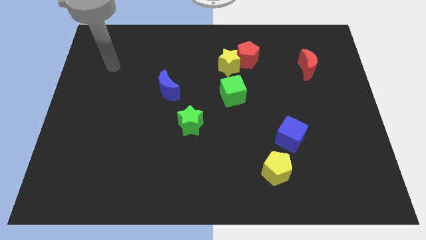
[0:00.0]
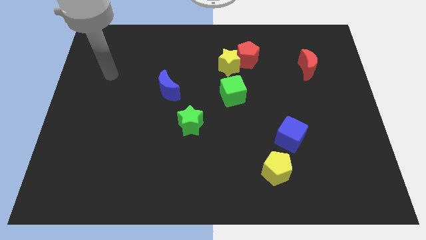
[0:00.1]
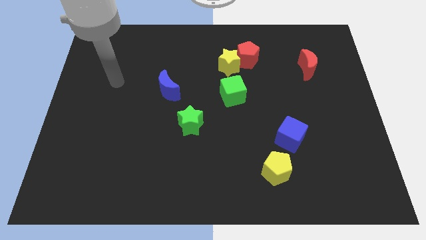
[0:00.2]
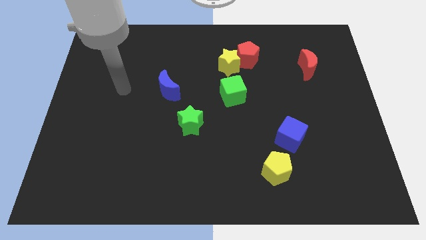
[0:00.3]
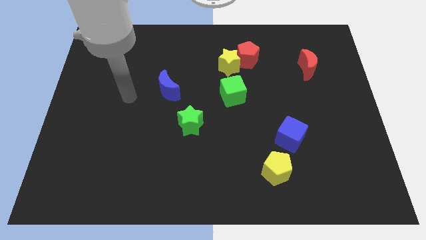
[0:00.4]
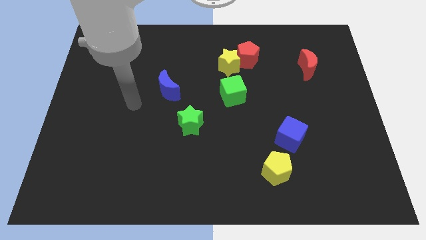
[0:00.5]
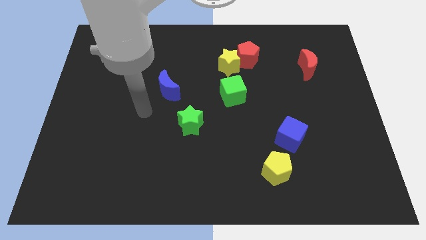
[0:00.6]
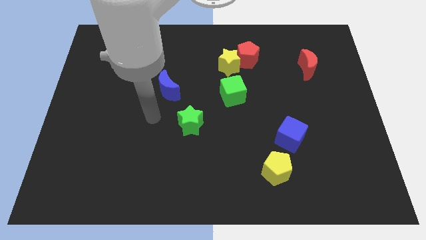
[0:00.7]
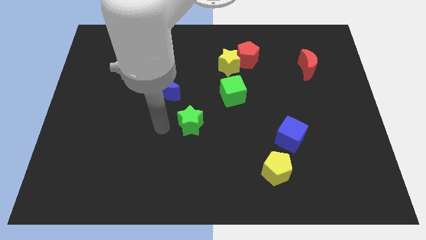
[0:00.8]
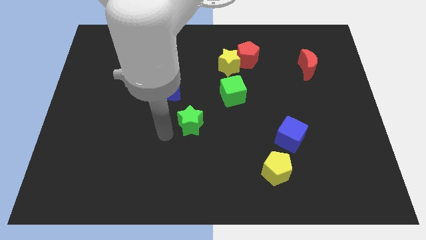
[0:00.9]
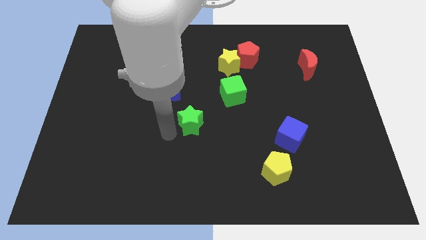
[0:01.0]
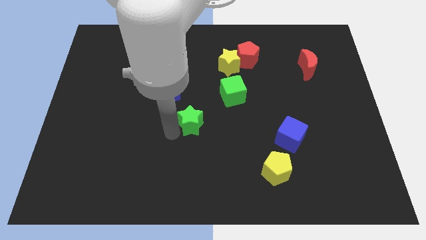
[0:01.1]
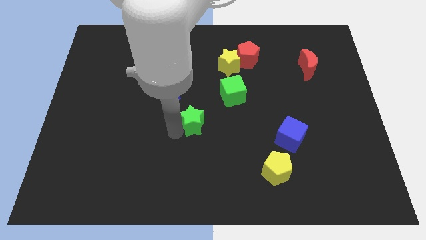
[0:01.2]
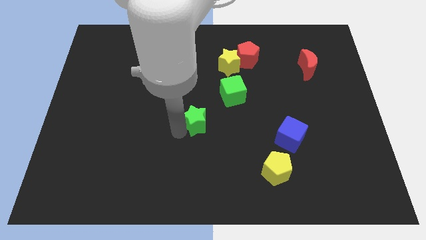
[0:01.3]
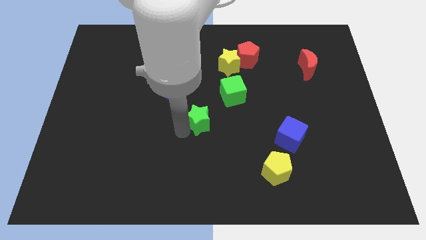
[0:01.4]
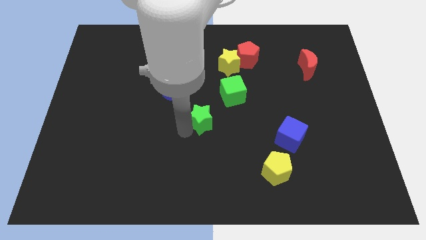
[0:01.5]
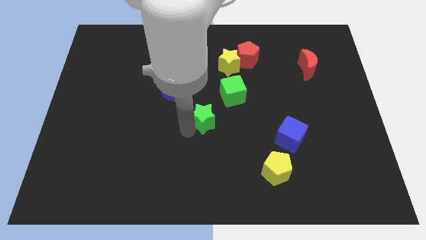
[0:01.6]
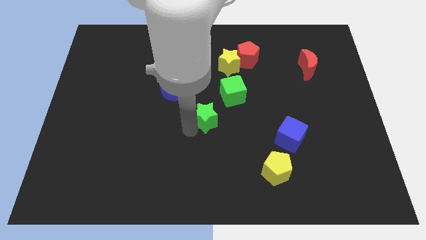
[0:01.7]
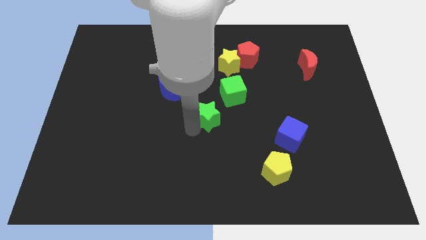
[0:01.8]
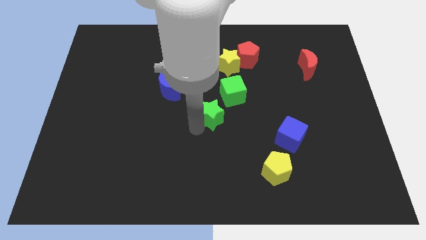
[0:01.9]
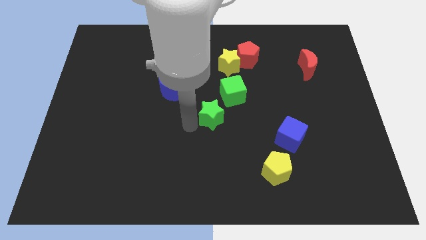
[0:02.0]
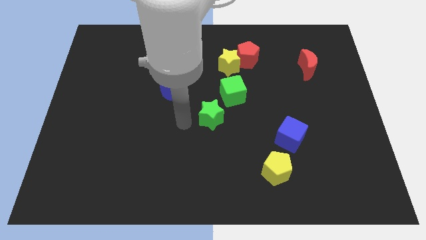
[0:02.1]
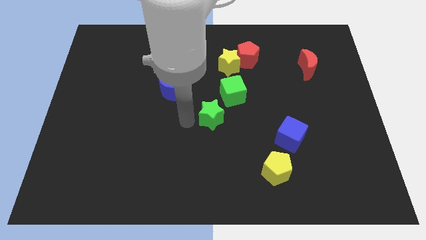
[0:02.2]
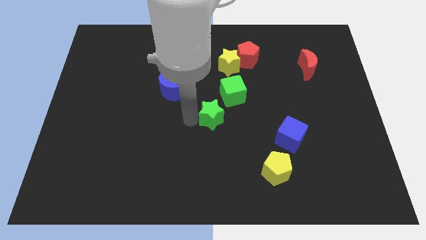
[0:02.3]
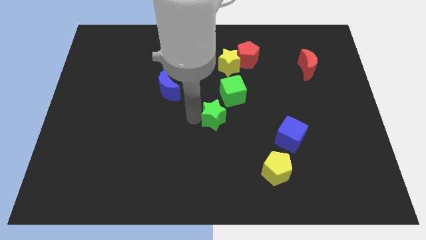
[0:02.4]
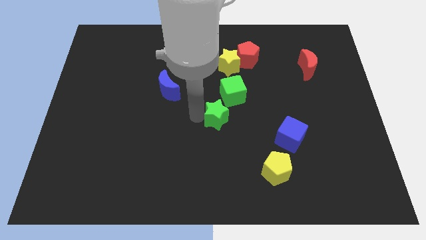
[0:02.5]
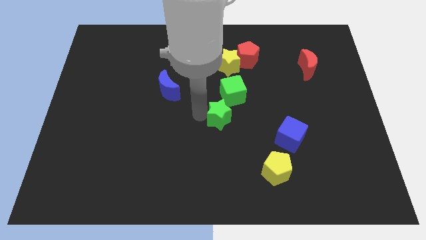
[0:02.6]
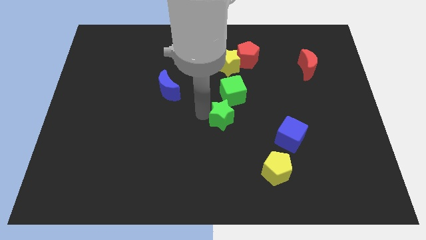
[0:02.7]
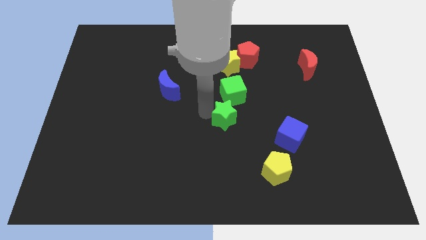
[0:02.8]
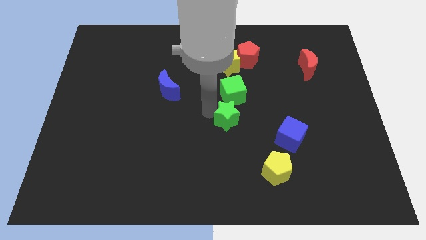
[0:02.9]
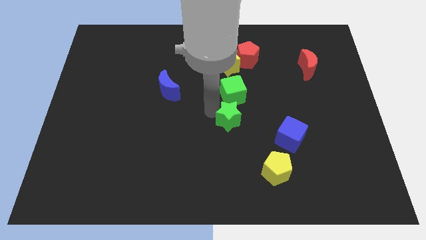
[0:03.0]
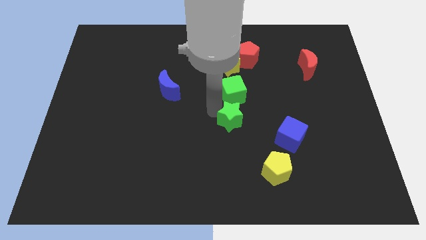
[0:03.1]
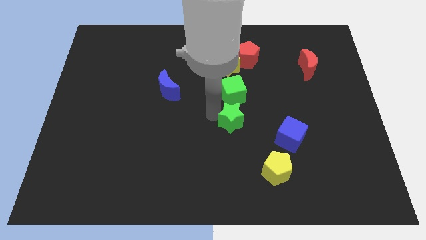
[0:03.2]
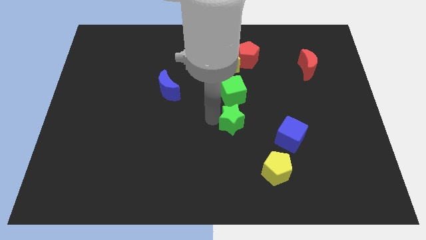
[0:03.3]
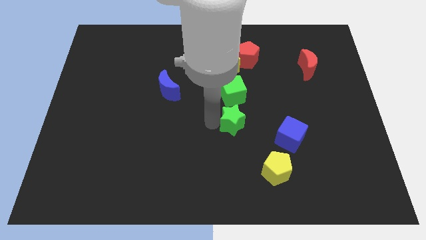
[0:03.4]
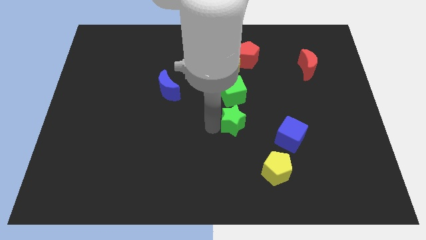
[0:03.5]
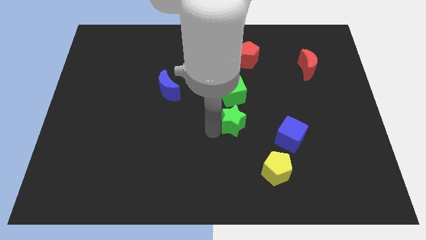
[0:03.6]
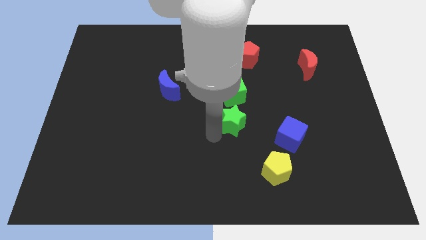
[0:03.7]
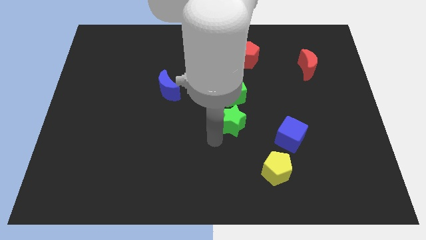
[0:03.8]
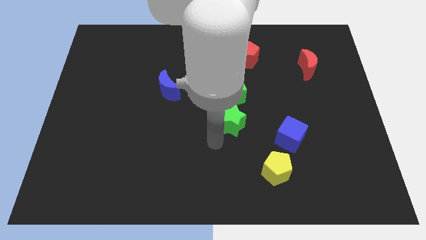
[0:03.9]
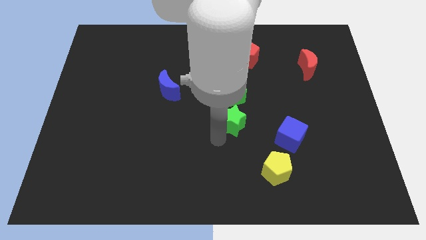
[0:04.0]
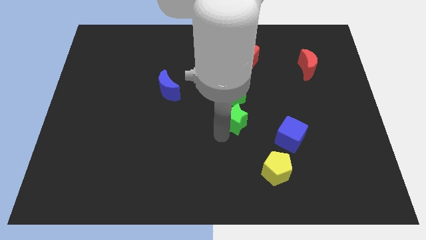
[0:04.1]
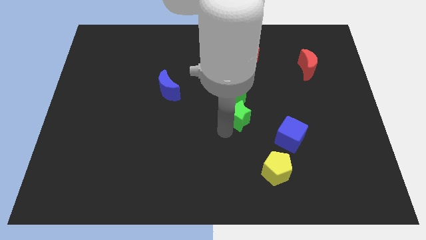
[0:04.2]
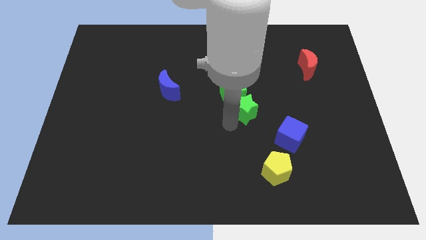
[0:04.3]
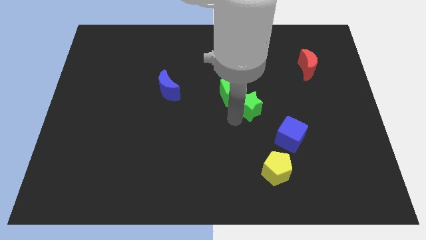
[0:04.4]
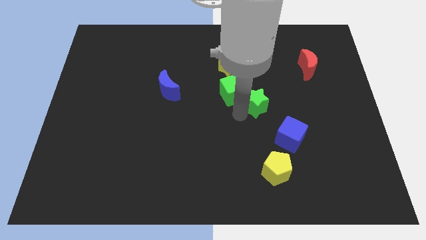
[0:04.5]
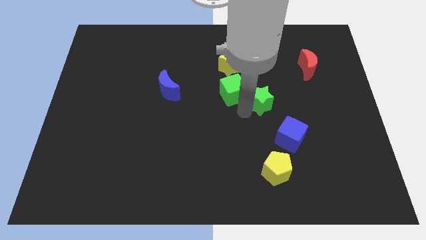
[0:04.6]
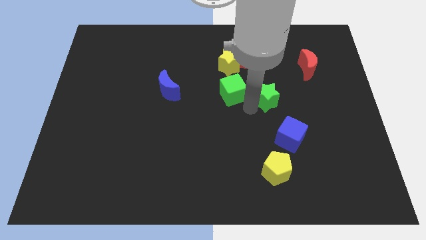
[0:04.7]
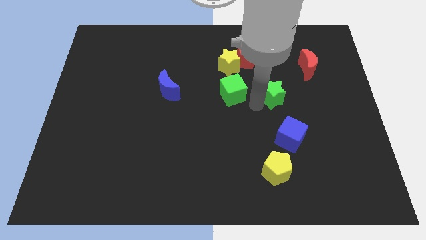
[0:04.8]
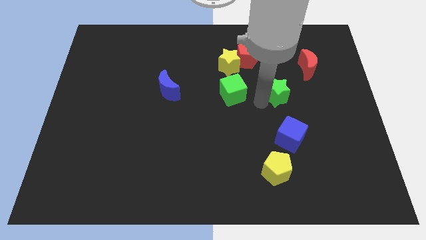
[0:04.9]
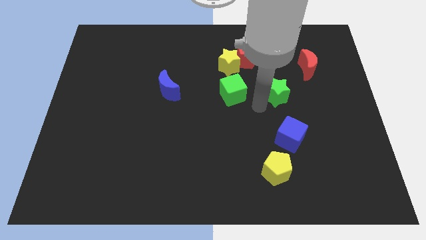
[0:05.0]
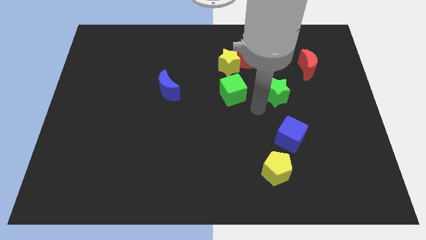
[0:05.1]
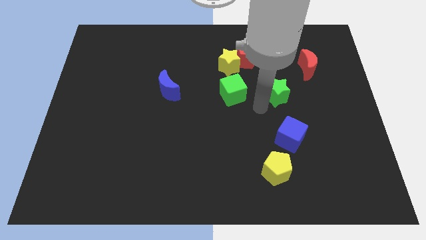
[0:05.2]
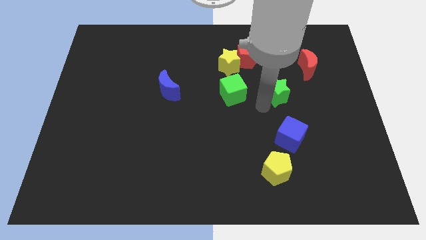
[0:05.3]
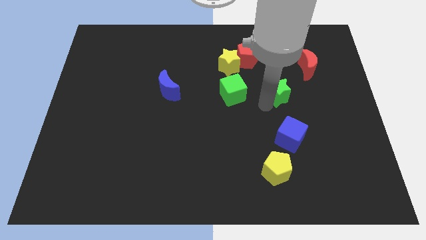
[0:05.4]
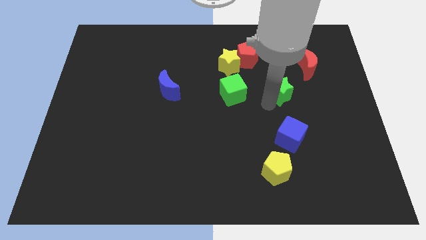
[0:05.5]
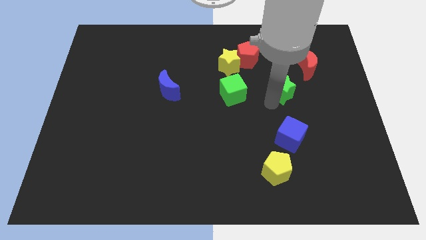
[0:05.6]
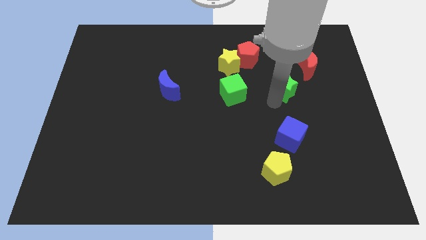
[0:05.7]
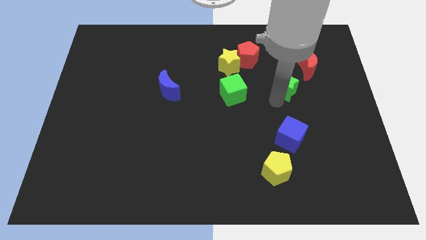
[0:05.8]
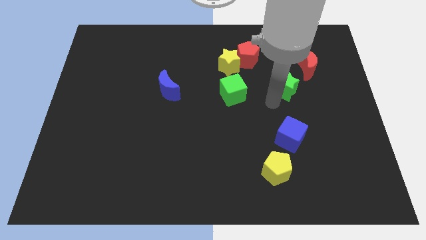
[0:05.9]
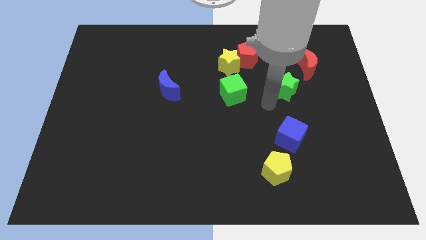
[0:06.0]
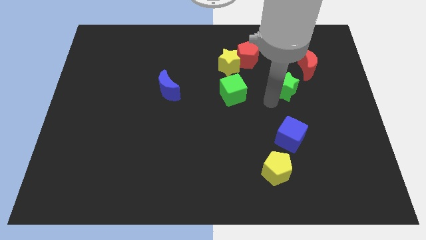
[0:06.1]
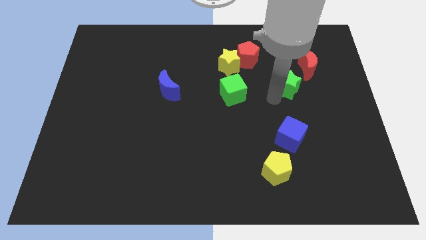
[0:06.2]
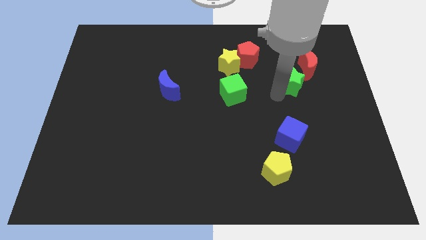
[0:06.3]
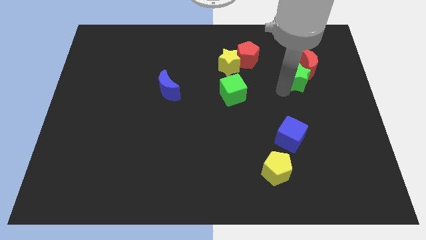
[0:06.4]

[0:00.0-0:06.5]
slide the green star to the red moon

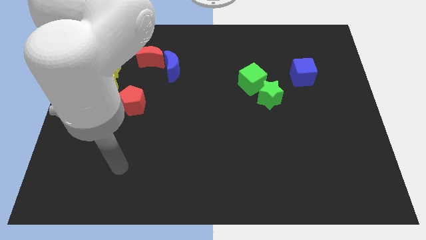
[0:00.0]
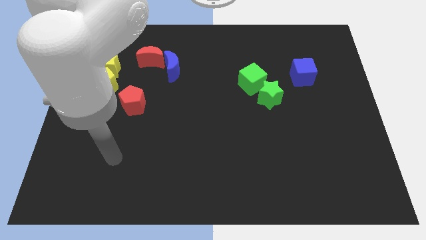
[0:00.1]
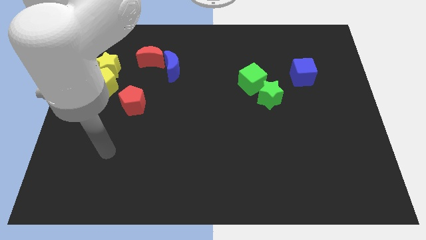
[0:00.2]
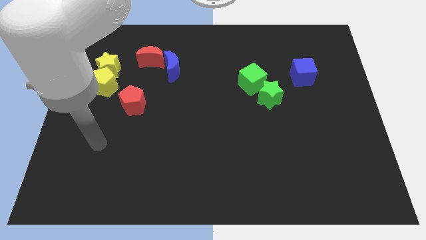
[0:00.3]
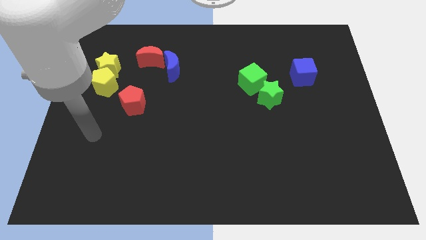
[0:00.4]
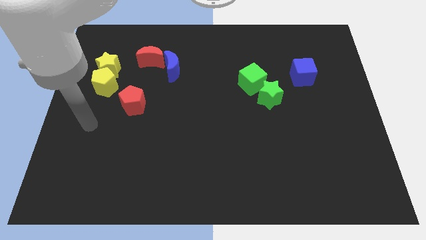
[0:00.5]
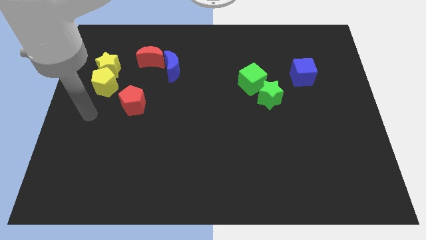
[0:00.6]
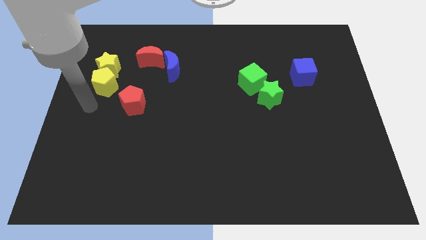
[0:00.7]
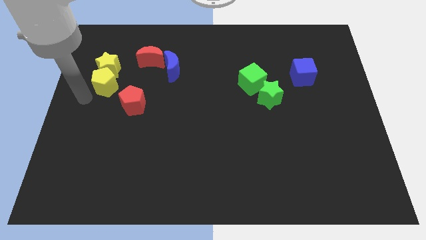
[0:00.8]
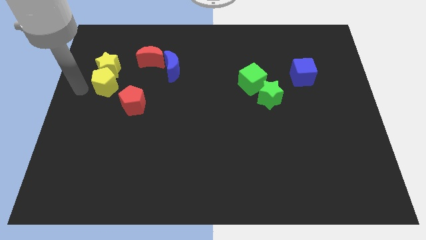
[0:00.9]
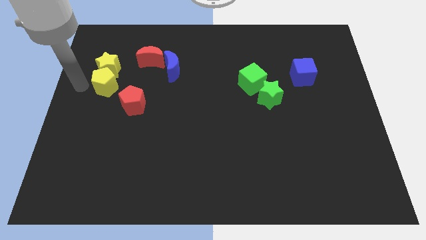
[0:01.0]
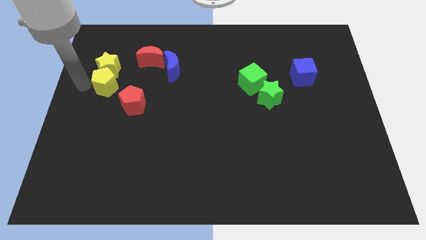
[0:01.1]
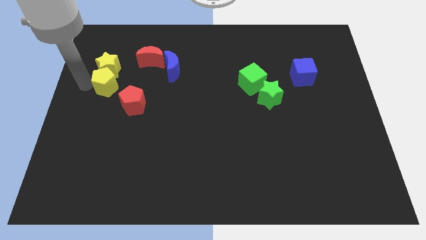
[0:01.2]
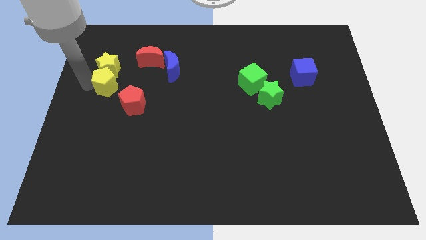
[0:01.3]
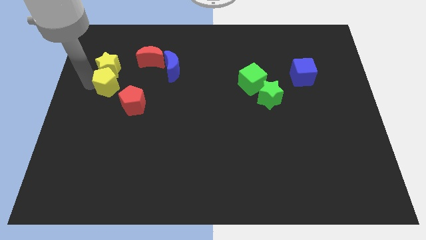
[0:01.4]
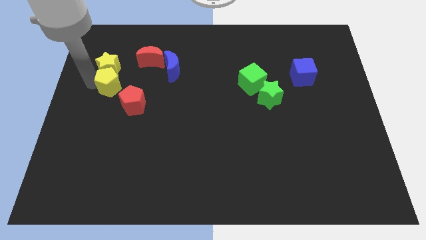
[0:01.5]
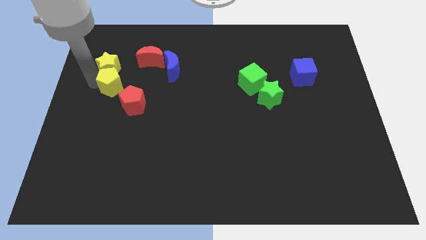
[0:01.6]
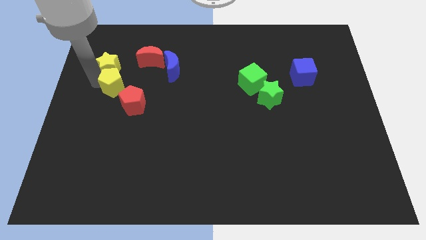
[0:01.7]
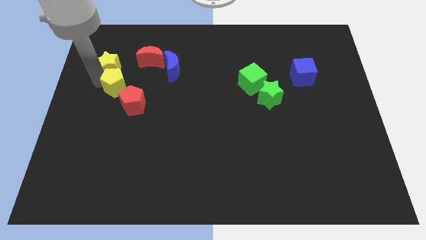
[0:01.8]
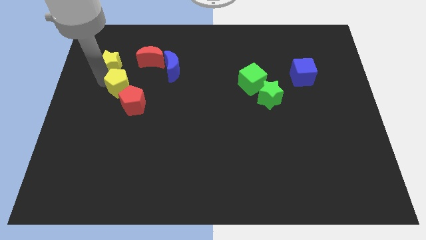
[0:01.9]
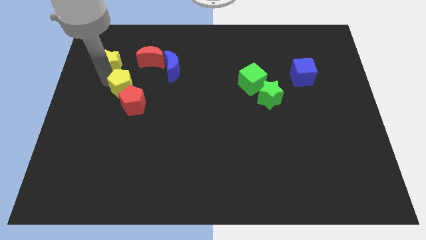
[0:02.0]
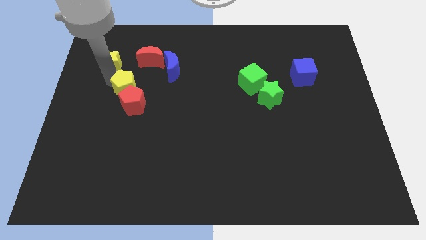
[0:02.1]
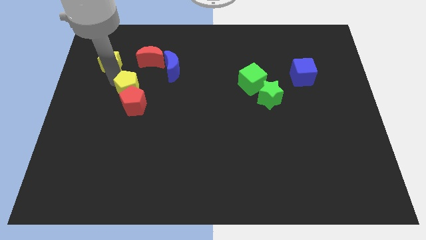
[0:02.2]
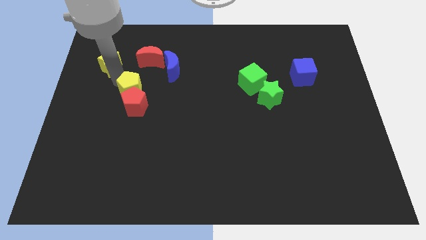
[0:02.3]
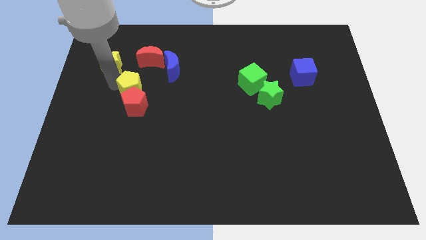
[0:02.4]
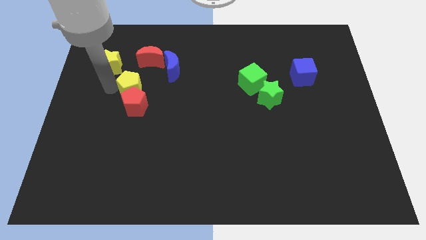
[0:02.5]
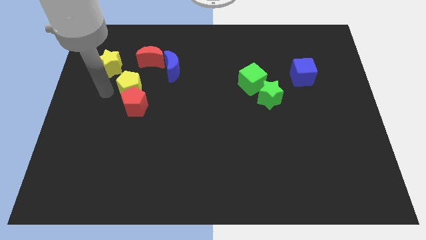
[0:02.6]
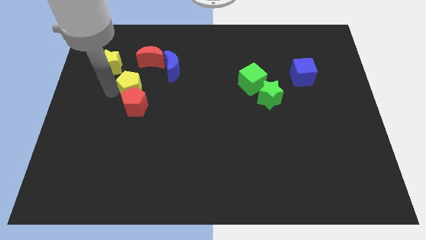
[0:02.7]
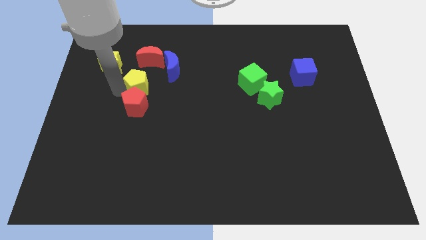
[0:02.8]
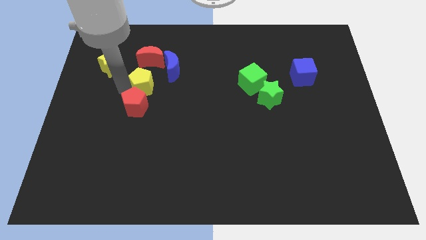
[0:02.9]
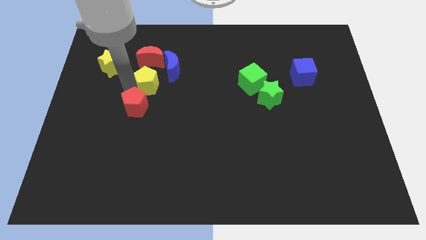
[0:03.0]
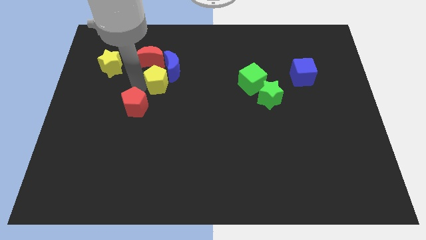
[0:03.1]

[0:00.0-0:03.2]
put the yellow pentagon close to the blue moon
